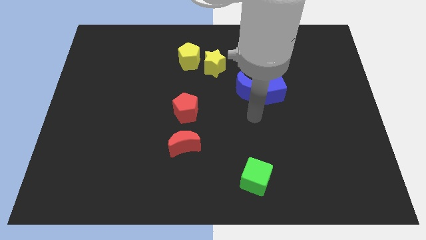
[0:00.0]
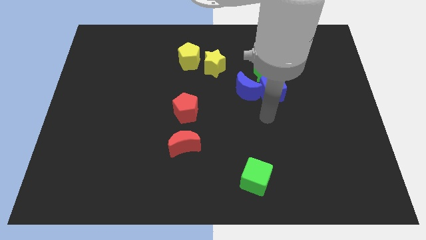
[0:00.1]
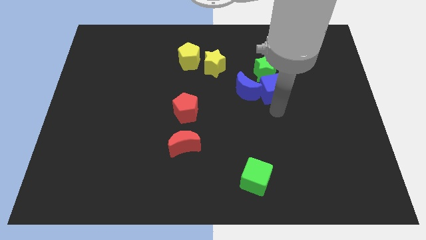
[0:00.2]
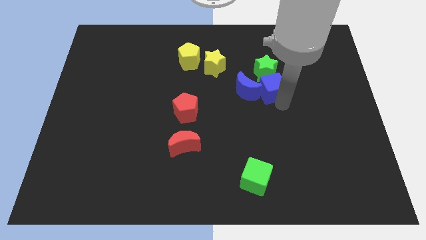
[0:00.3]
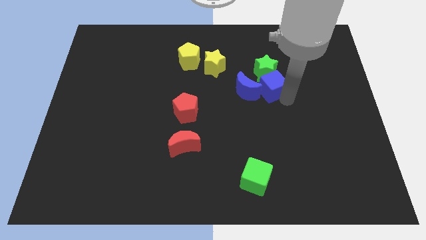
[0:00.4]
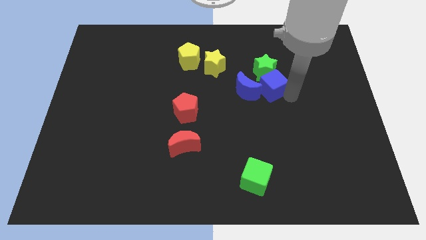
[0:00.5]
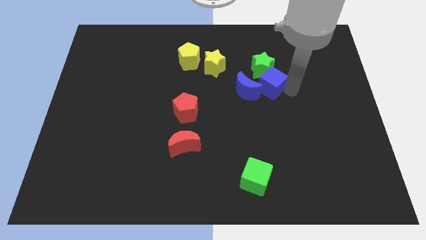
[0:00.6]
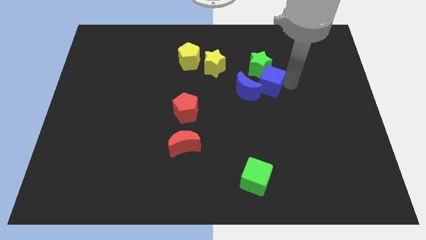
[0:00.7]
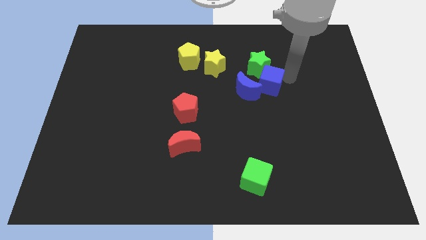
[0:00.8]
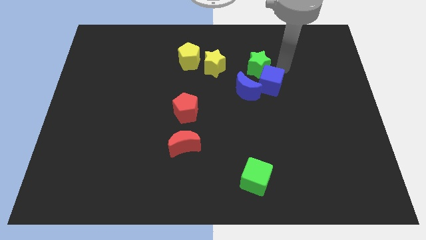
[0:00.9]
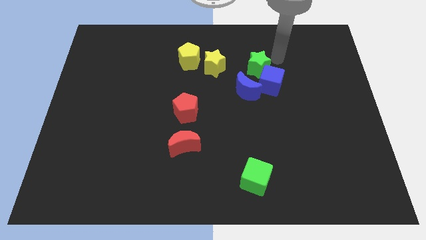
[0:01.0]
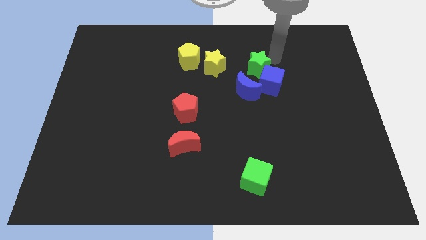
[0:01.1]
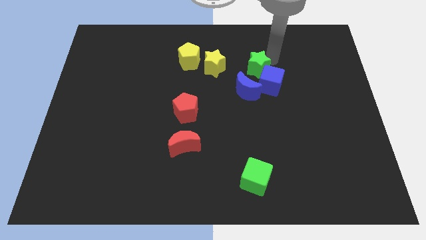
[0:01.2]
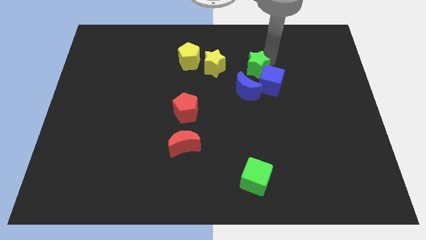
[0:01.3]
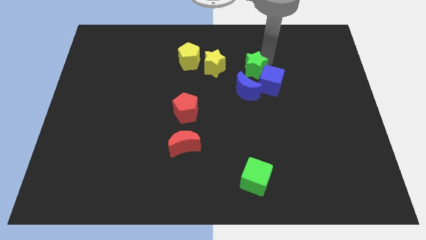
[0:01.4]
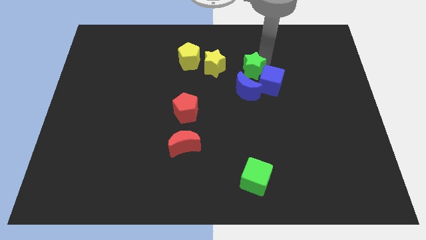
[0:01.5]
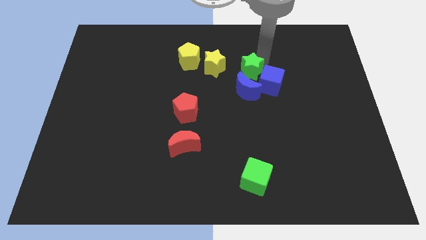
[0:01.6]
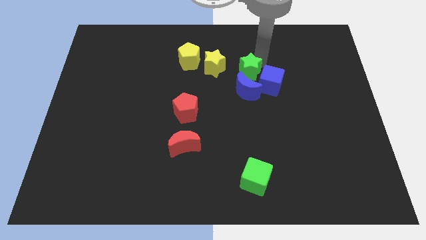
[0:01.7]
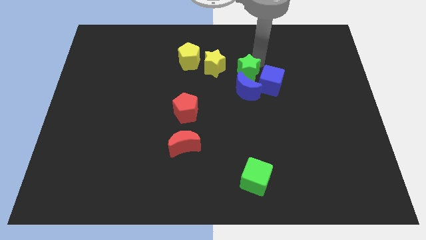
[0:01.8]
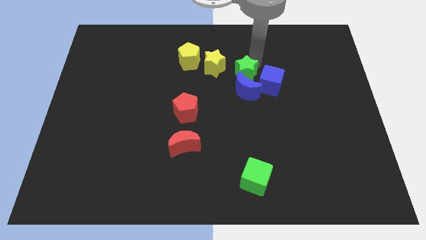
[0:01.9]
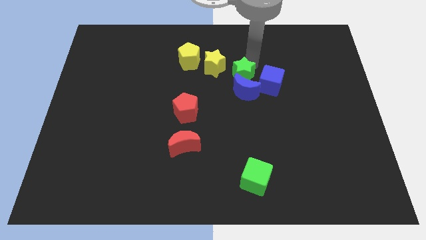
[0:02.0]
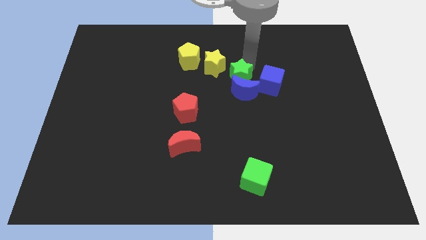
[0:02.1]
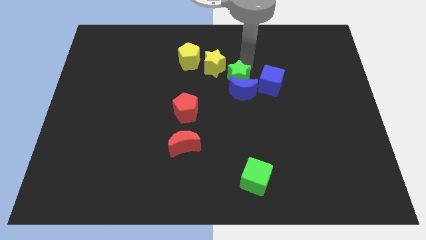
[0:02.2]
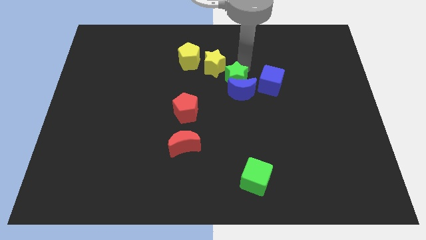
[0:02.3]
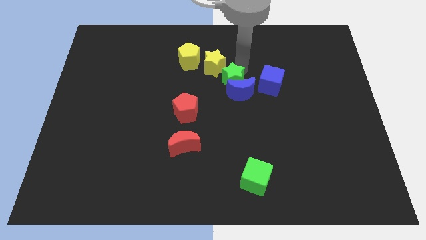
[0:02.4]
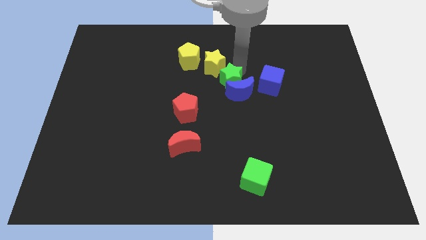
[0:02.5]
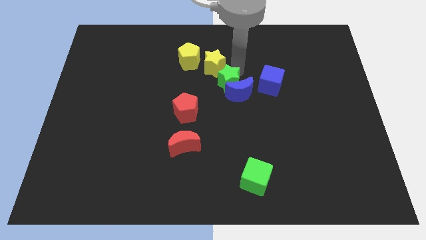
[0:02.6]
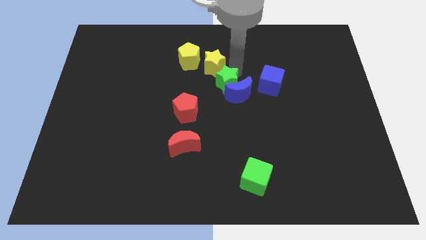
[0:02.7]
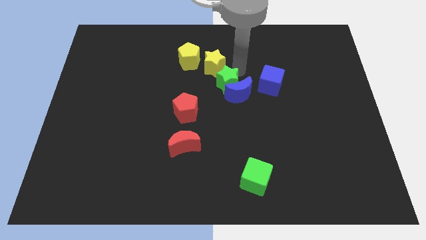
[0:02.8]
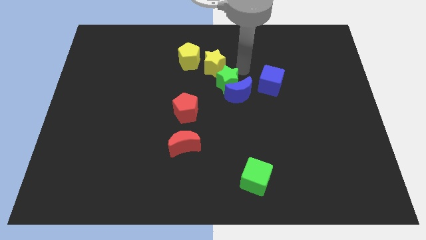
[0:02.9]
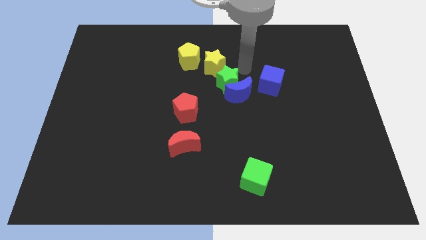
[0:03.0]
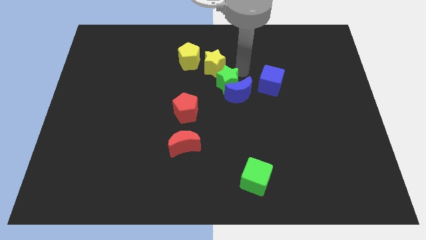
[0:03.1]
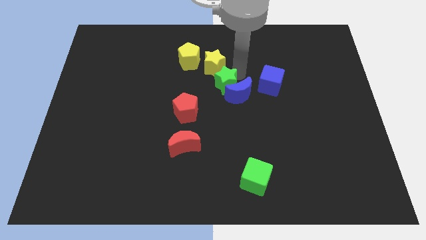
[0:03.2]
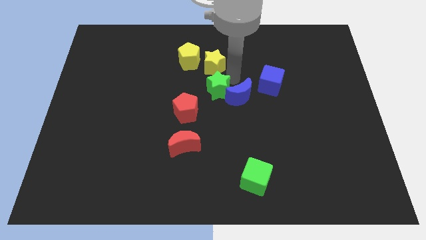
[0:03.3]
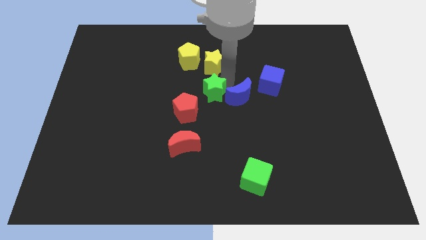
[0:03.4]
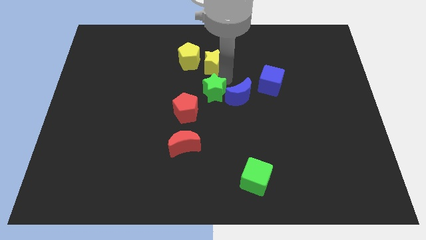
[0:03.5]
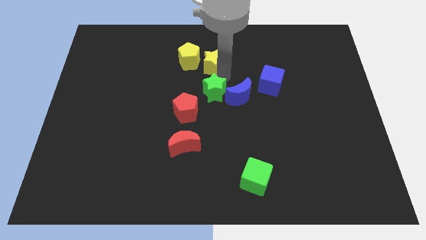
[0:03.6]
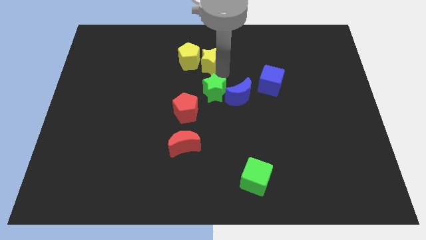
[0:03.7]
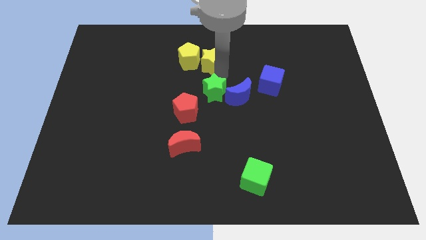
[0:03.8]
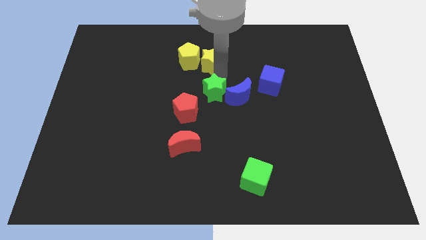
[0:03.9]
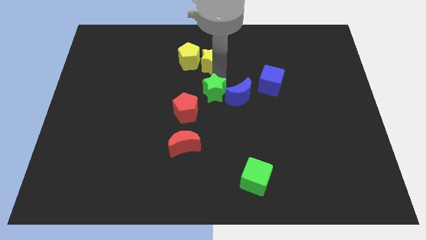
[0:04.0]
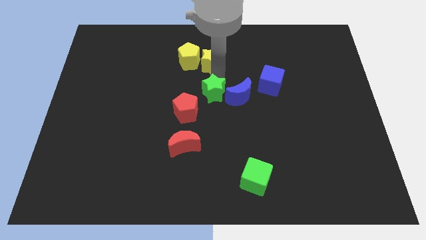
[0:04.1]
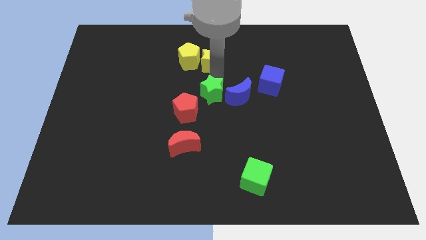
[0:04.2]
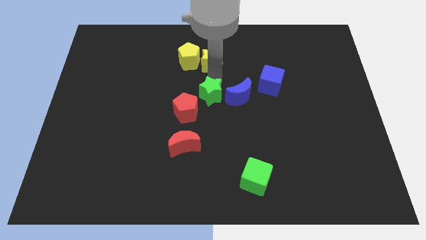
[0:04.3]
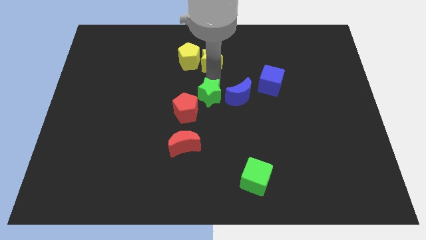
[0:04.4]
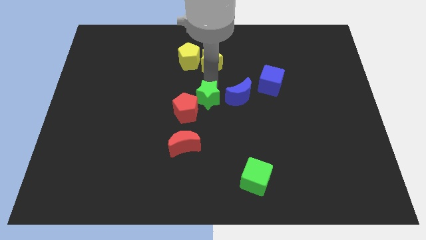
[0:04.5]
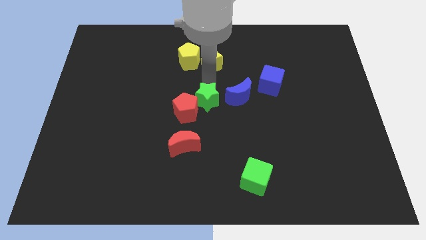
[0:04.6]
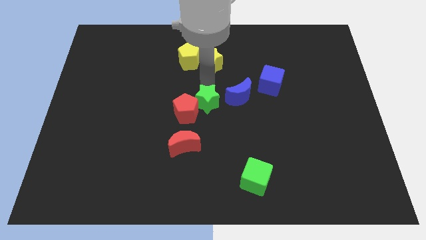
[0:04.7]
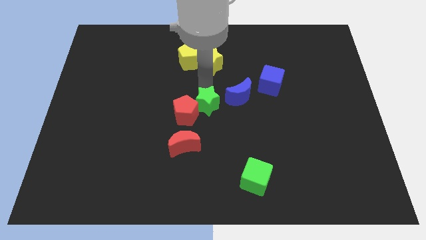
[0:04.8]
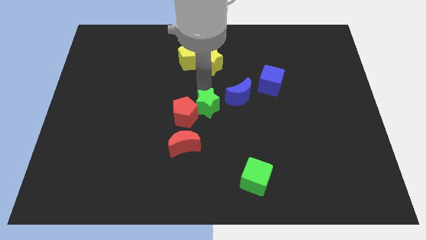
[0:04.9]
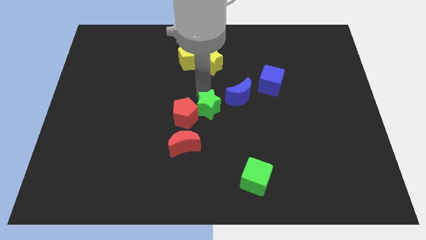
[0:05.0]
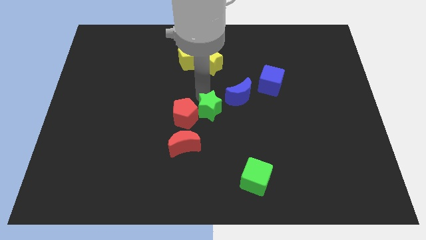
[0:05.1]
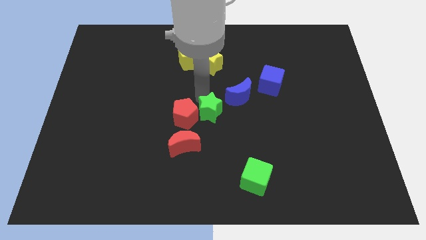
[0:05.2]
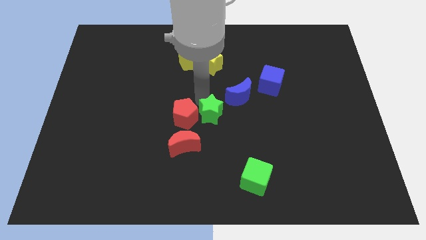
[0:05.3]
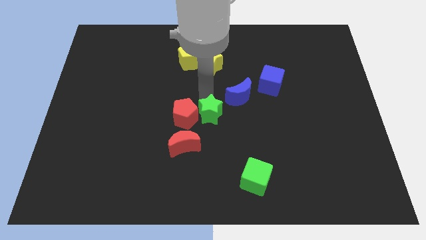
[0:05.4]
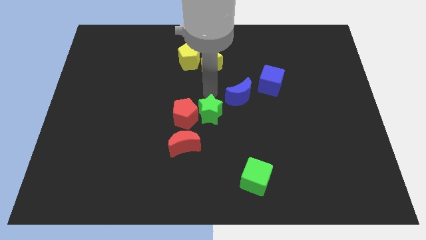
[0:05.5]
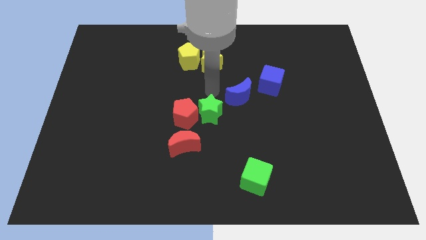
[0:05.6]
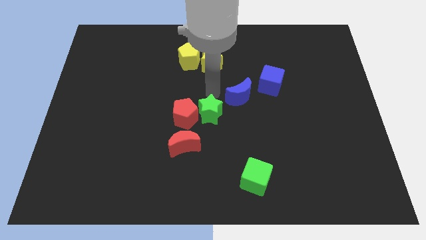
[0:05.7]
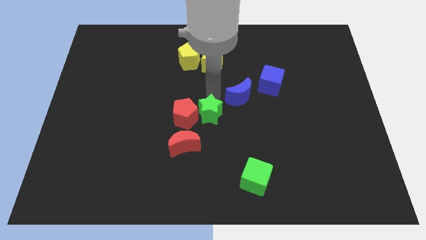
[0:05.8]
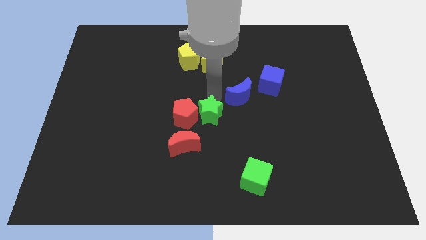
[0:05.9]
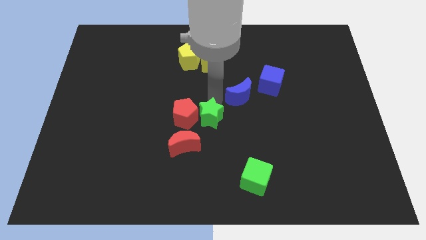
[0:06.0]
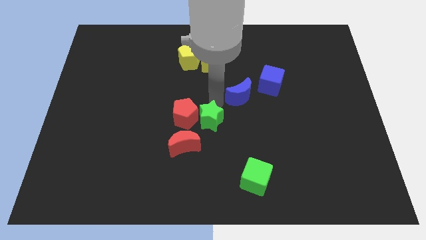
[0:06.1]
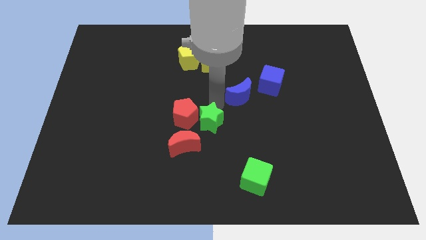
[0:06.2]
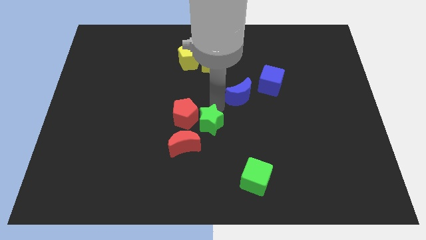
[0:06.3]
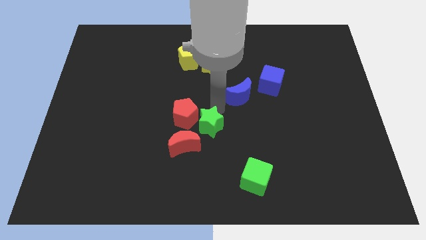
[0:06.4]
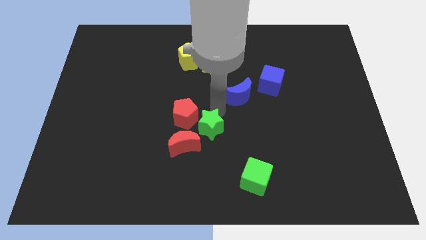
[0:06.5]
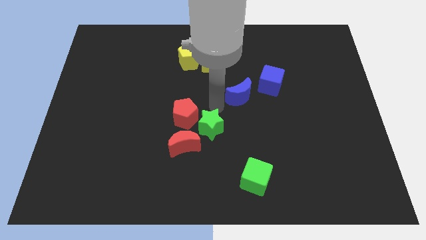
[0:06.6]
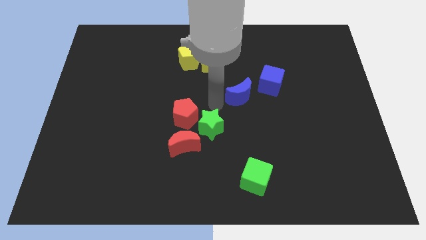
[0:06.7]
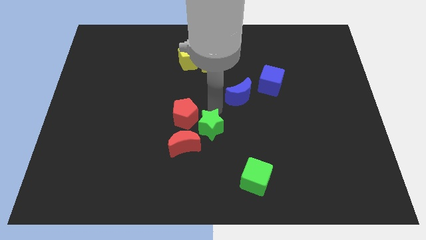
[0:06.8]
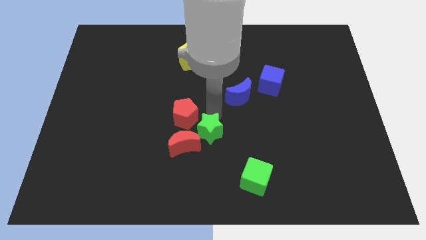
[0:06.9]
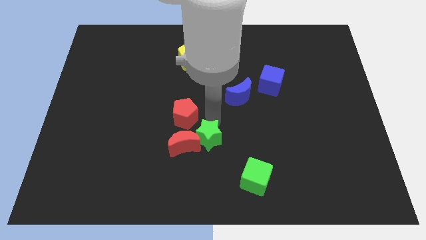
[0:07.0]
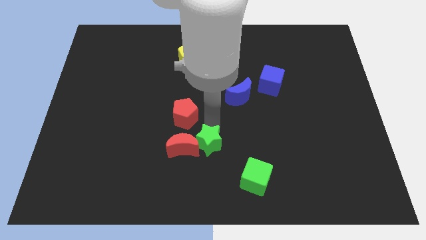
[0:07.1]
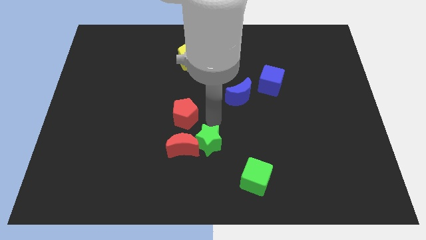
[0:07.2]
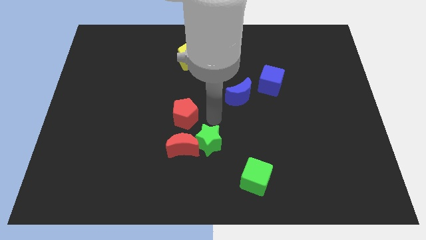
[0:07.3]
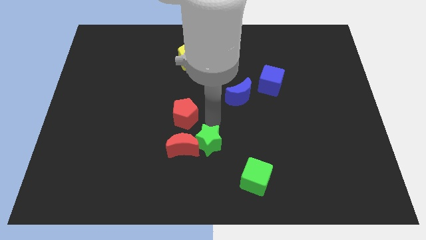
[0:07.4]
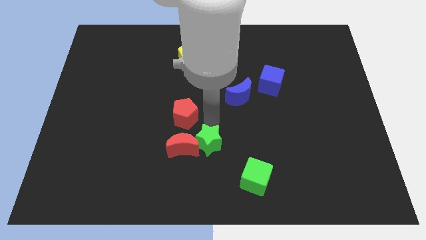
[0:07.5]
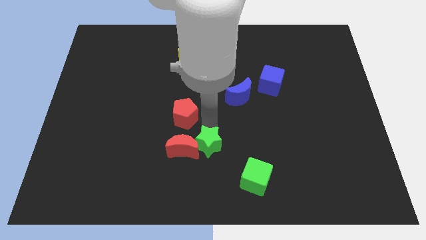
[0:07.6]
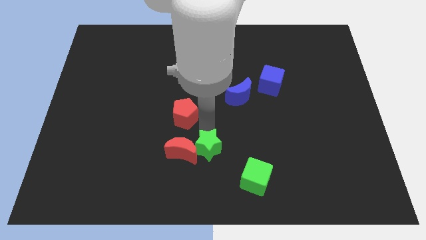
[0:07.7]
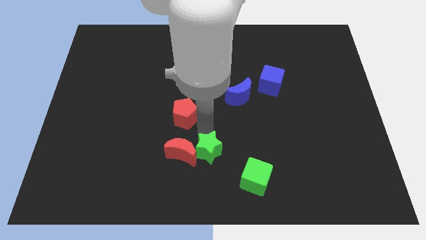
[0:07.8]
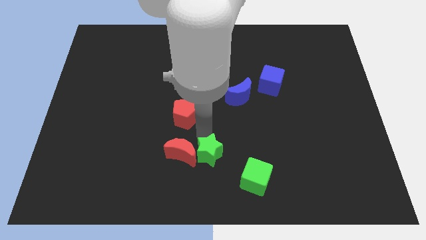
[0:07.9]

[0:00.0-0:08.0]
push the green star to the bottom side
